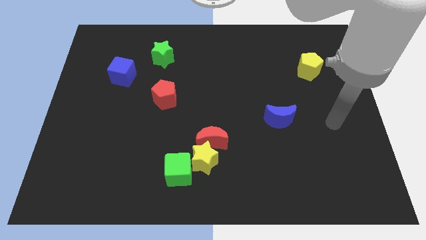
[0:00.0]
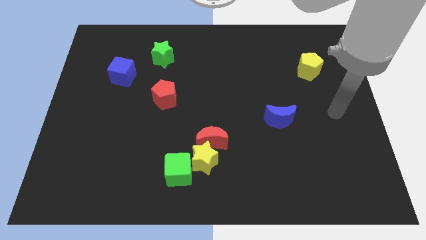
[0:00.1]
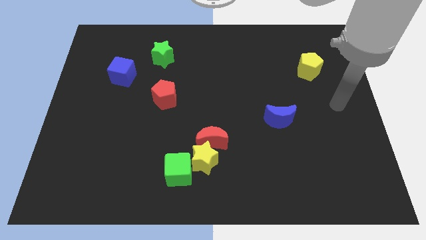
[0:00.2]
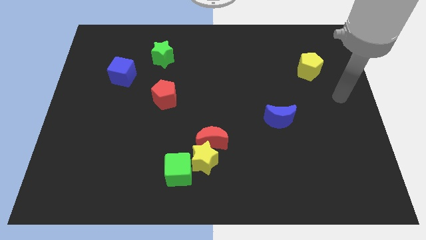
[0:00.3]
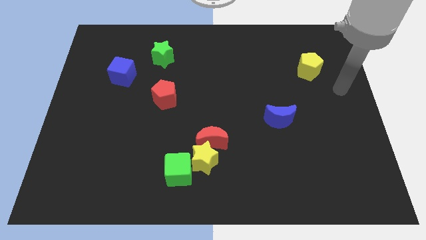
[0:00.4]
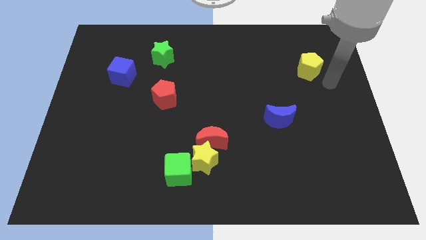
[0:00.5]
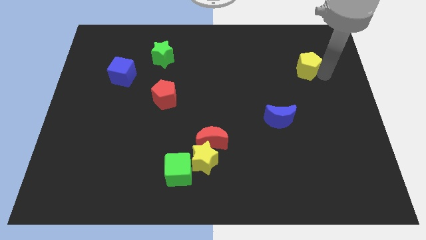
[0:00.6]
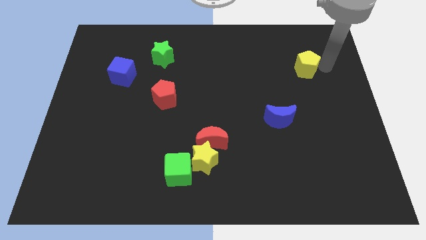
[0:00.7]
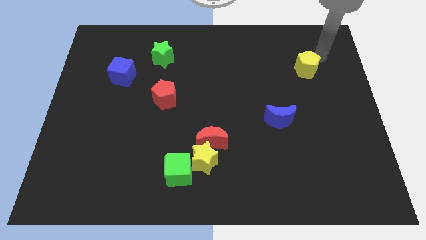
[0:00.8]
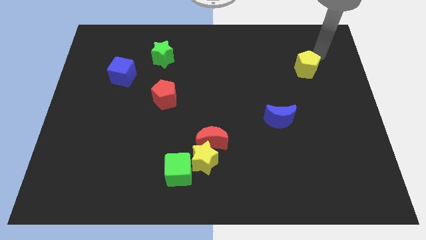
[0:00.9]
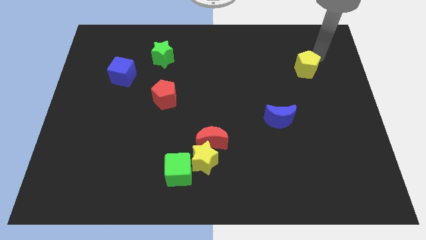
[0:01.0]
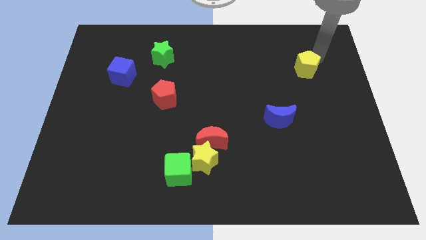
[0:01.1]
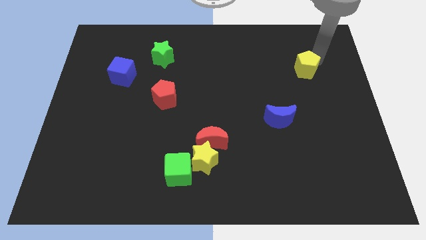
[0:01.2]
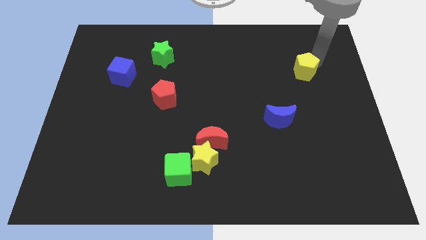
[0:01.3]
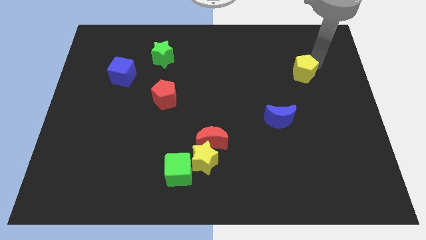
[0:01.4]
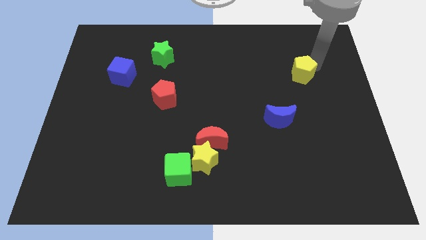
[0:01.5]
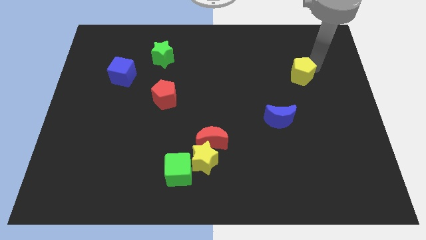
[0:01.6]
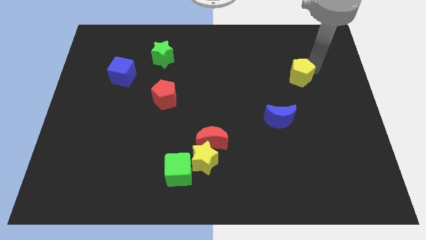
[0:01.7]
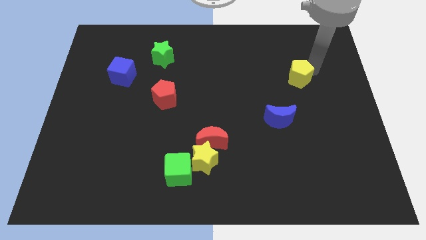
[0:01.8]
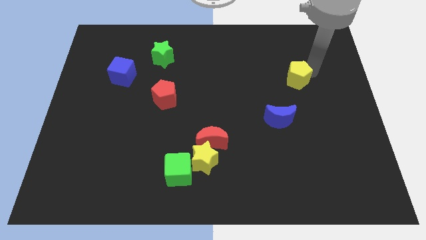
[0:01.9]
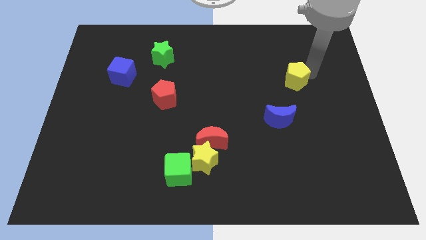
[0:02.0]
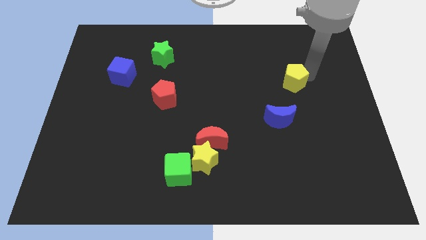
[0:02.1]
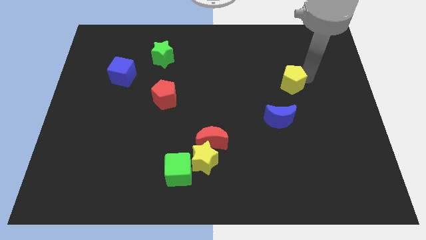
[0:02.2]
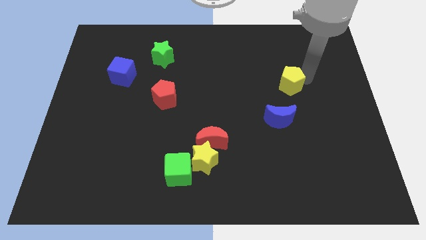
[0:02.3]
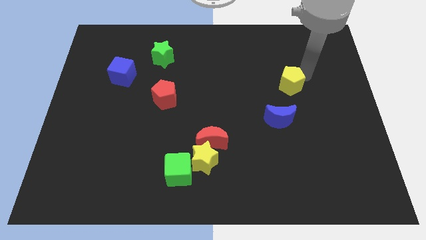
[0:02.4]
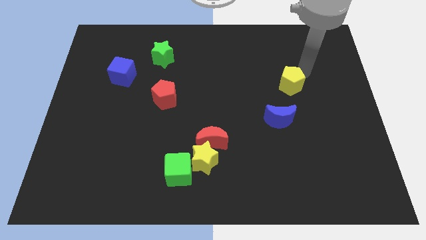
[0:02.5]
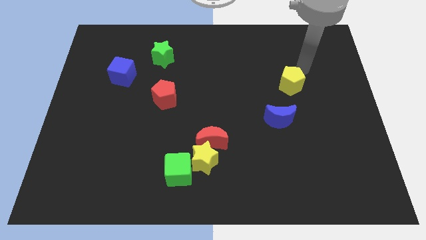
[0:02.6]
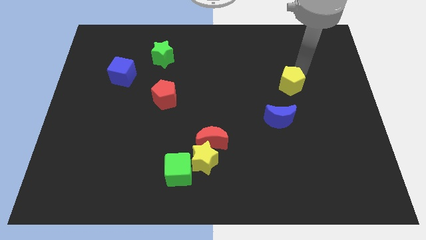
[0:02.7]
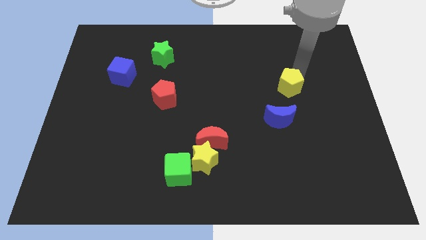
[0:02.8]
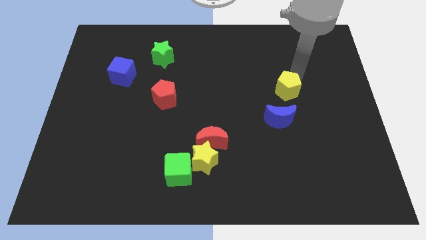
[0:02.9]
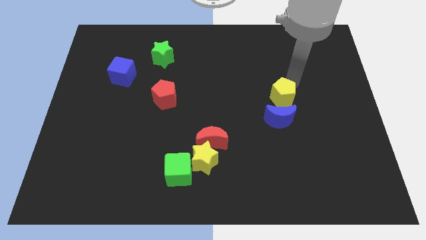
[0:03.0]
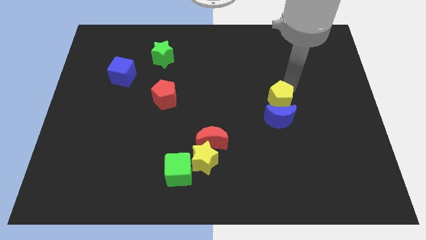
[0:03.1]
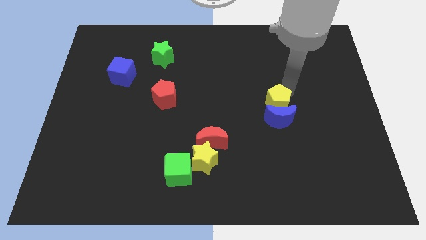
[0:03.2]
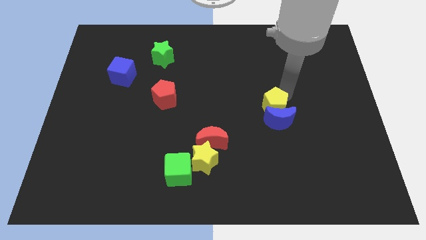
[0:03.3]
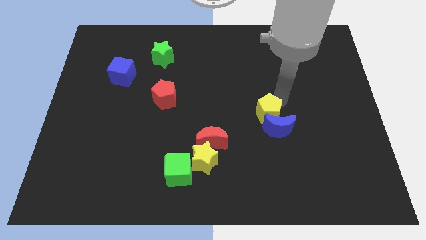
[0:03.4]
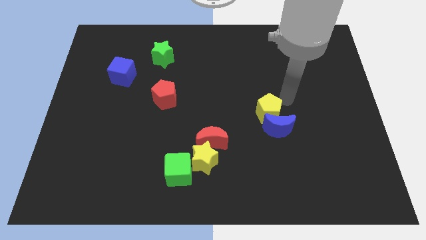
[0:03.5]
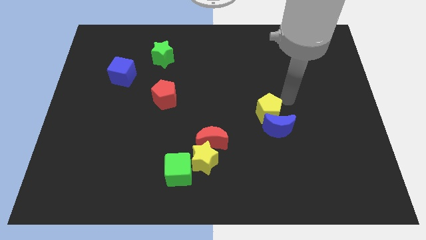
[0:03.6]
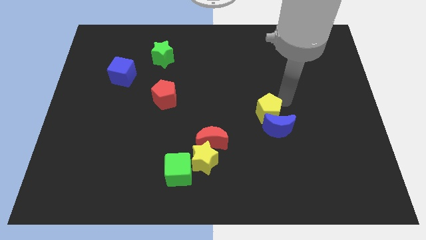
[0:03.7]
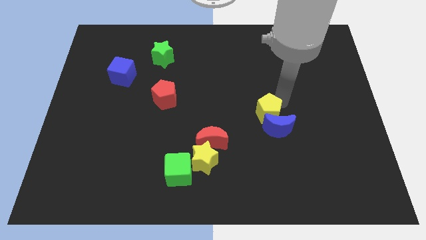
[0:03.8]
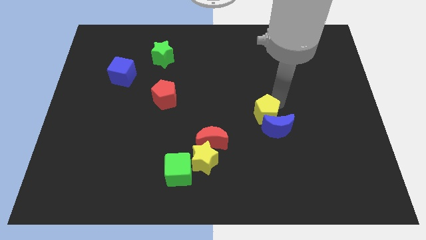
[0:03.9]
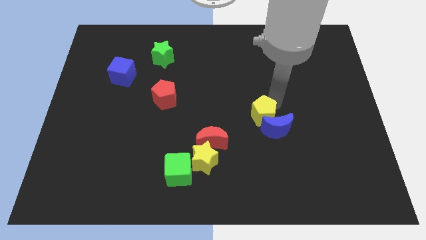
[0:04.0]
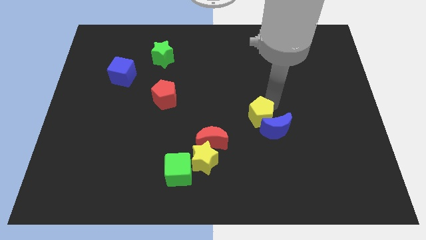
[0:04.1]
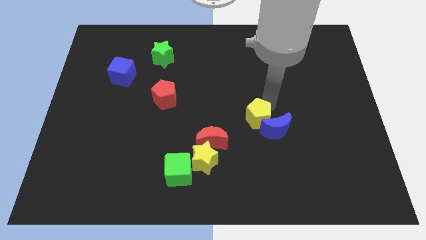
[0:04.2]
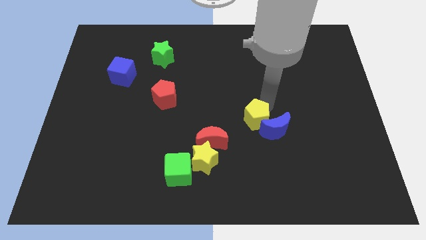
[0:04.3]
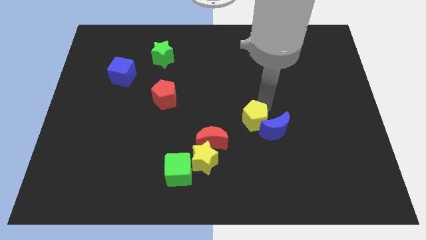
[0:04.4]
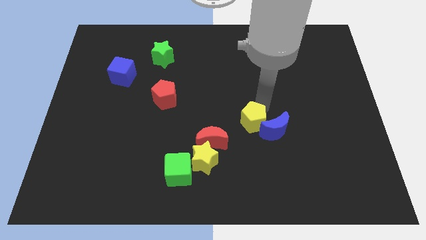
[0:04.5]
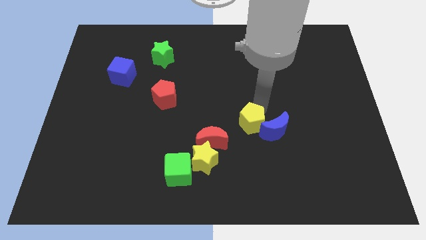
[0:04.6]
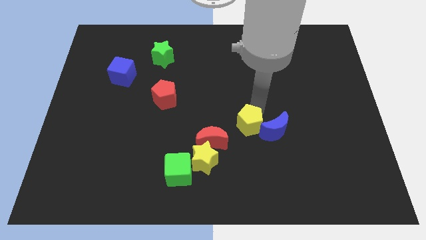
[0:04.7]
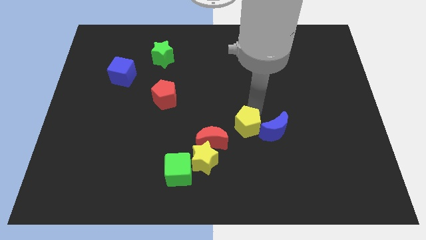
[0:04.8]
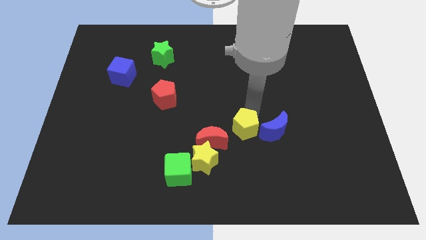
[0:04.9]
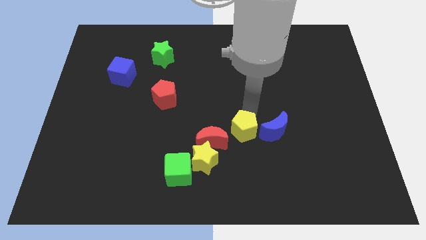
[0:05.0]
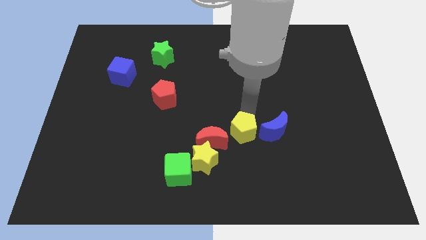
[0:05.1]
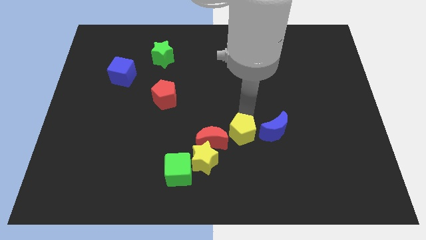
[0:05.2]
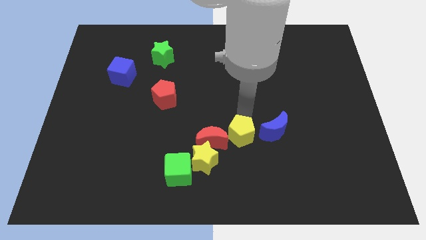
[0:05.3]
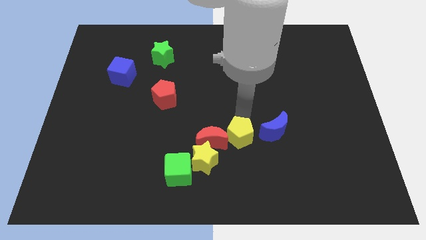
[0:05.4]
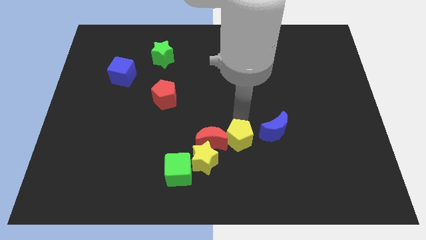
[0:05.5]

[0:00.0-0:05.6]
slide the yellow pentagon diagonally down and to the right of the red moon
